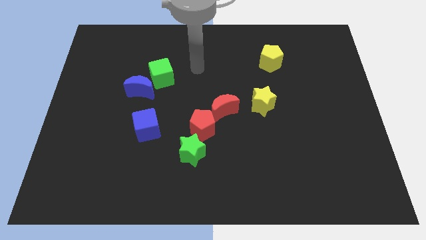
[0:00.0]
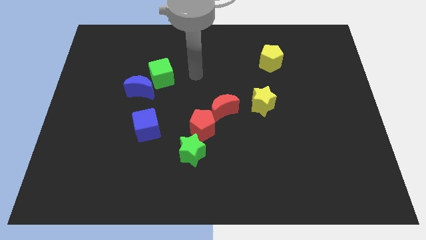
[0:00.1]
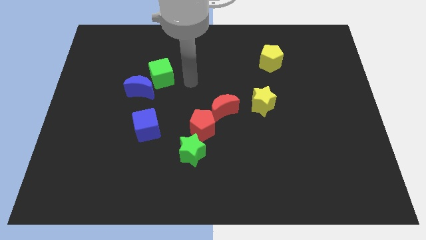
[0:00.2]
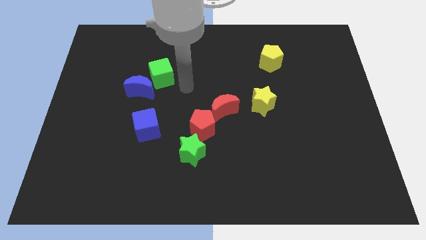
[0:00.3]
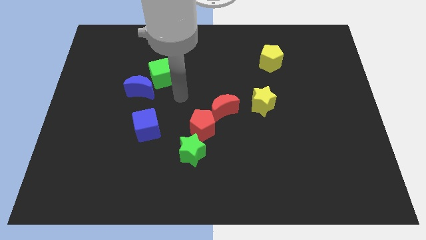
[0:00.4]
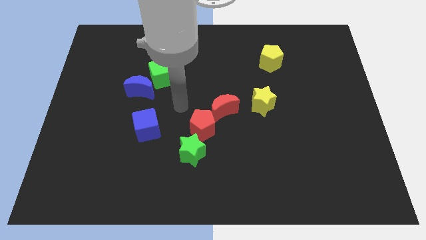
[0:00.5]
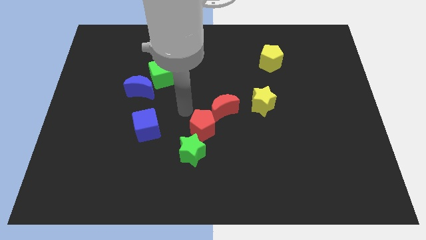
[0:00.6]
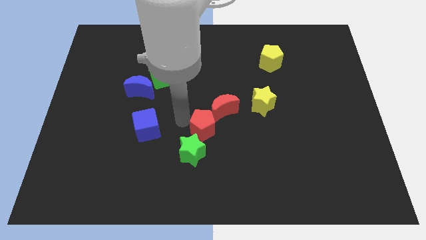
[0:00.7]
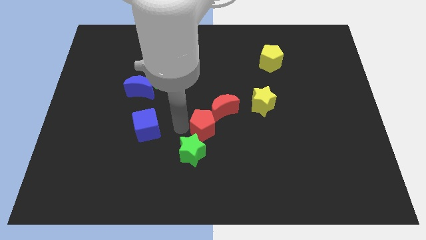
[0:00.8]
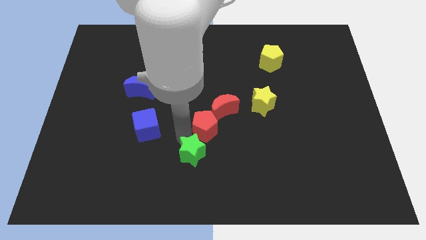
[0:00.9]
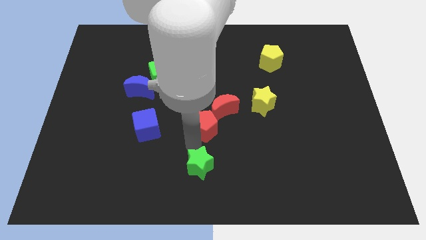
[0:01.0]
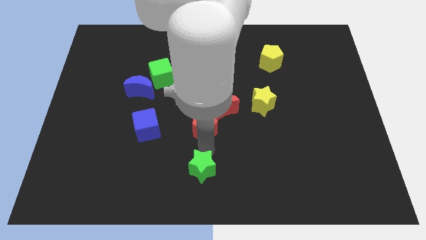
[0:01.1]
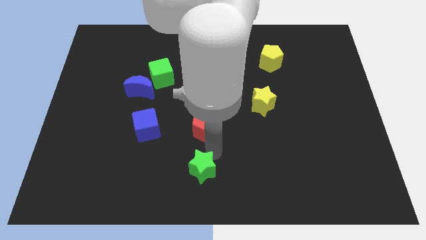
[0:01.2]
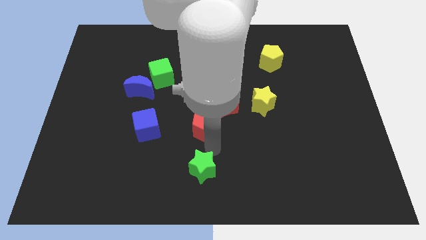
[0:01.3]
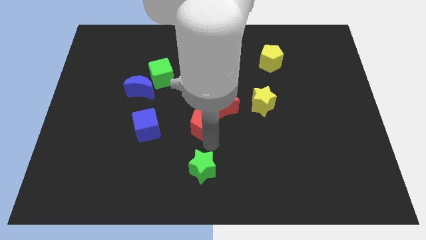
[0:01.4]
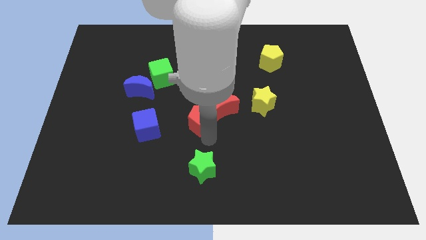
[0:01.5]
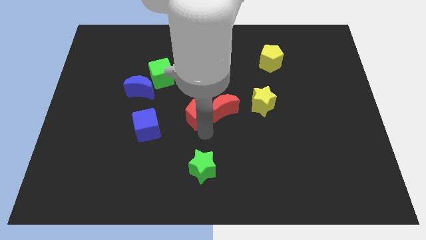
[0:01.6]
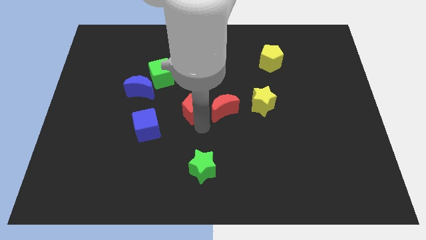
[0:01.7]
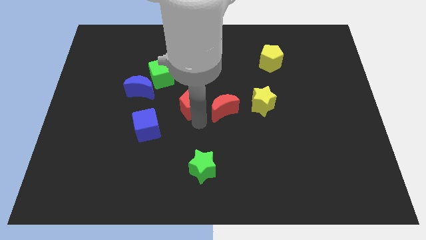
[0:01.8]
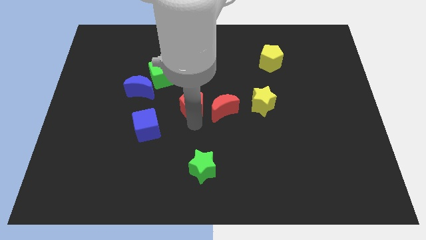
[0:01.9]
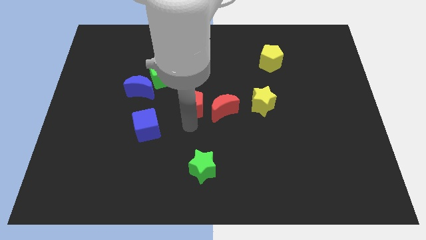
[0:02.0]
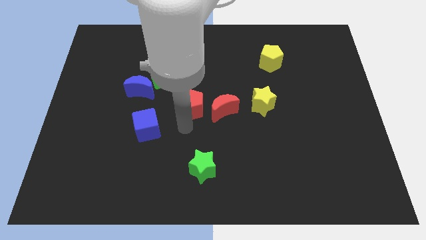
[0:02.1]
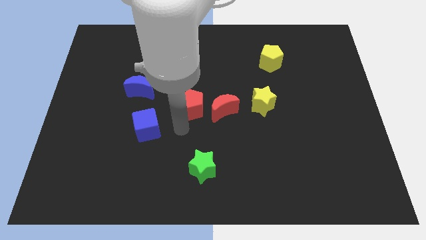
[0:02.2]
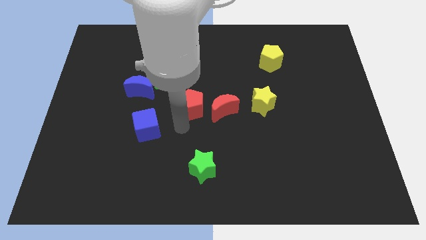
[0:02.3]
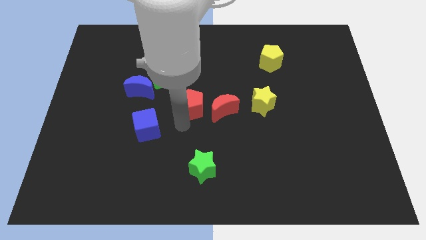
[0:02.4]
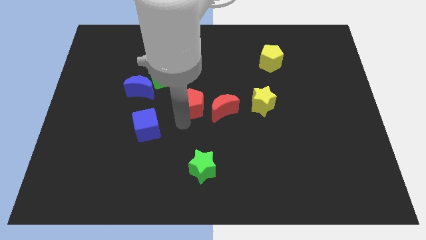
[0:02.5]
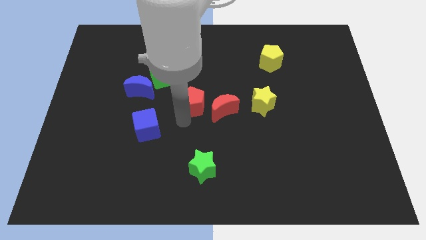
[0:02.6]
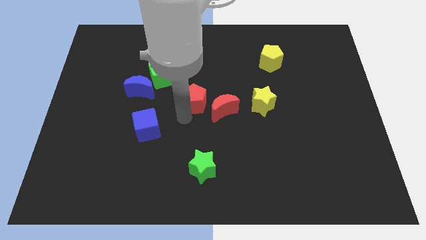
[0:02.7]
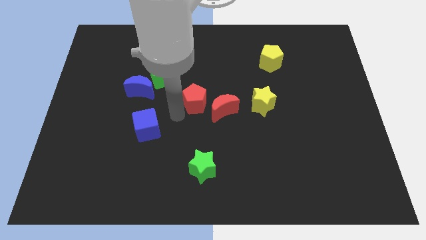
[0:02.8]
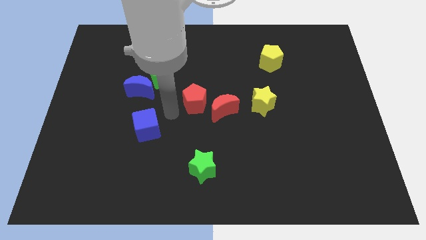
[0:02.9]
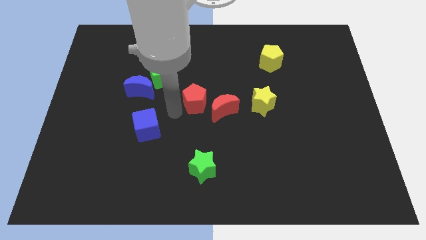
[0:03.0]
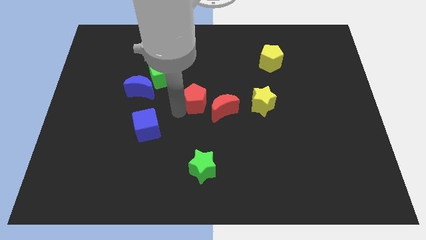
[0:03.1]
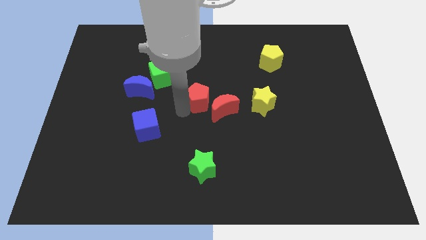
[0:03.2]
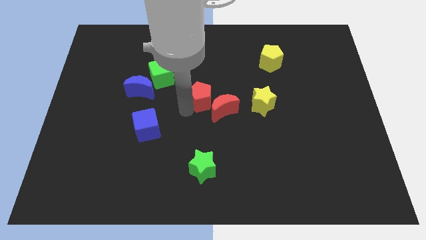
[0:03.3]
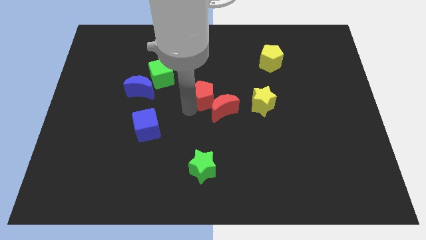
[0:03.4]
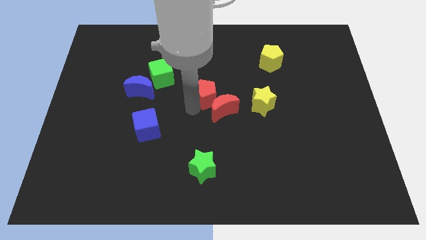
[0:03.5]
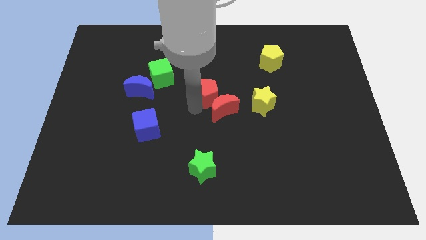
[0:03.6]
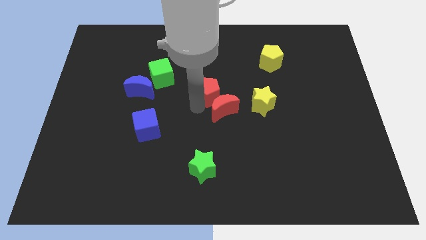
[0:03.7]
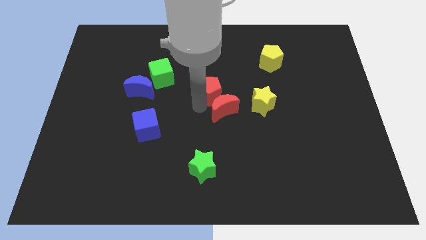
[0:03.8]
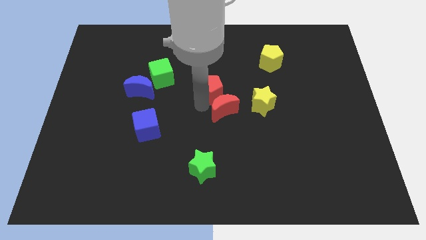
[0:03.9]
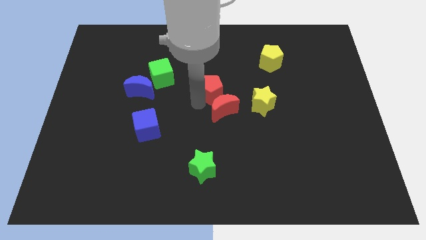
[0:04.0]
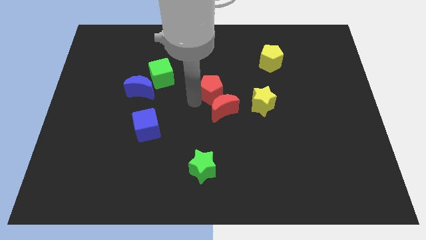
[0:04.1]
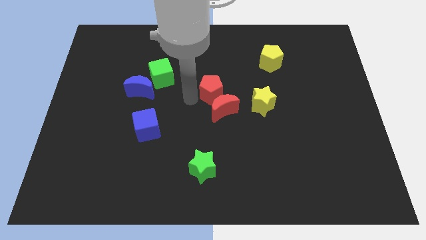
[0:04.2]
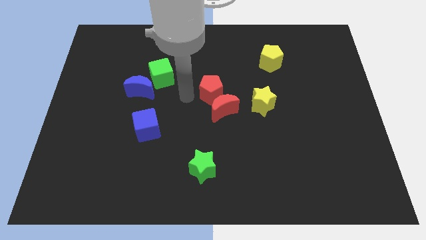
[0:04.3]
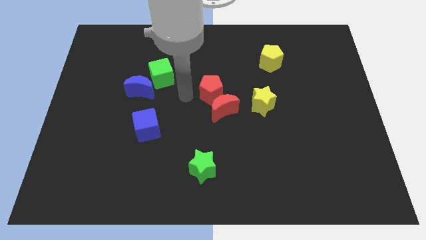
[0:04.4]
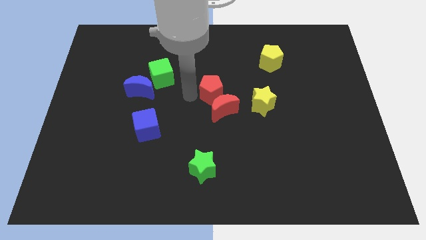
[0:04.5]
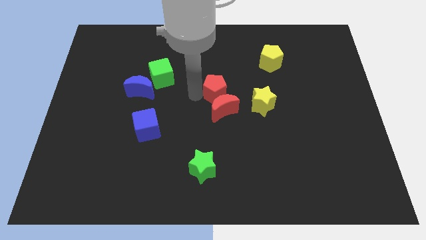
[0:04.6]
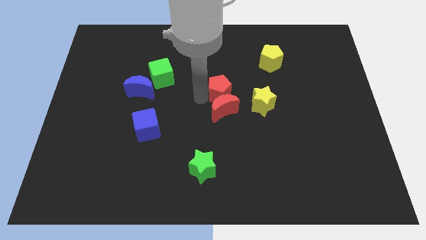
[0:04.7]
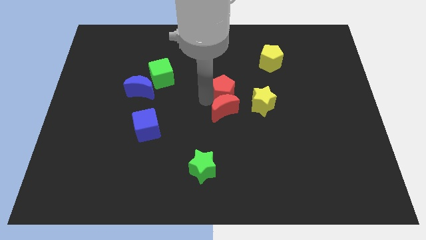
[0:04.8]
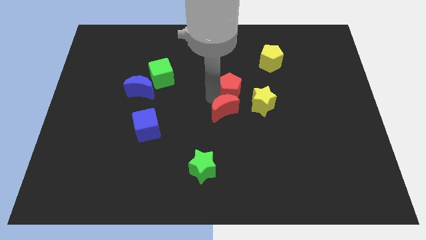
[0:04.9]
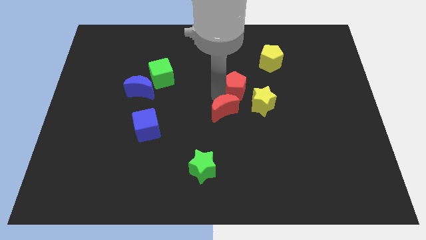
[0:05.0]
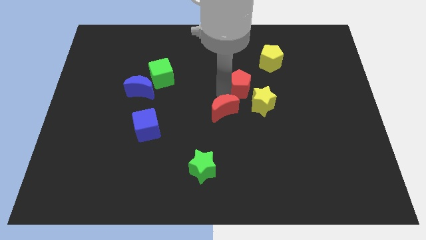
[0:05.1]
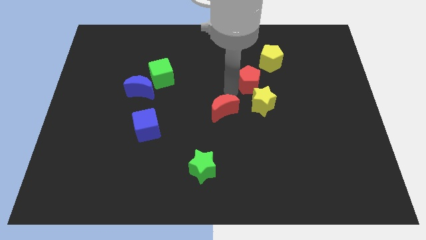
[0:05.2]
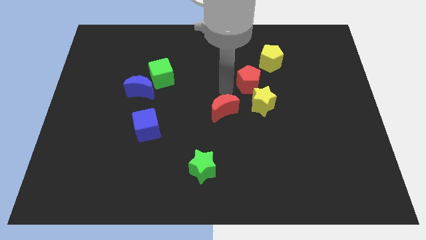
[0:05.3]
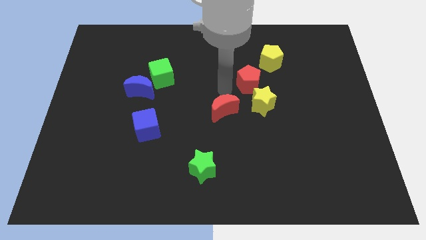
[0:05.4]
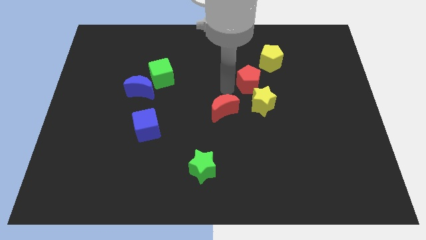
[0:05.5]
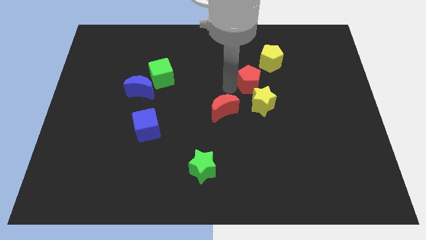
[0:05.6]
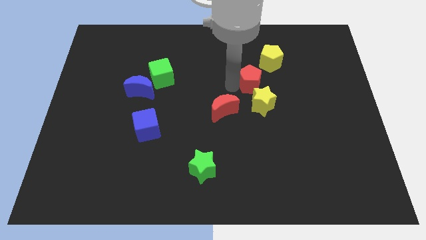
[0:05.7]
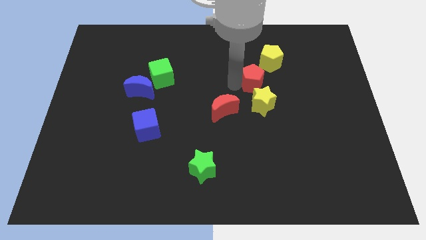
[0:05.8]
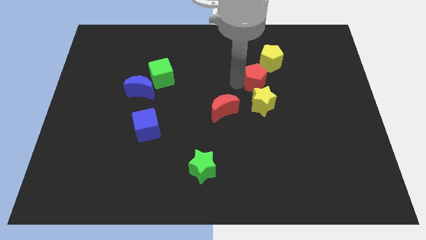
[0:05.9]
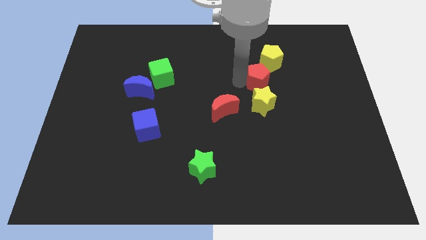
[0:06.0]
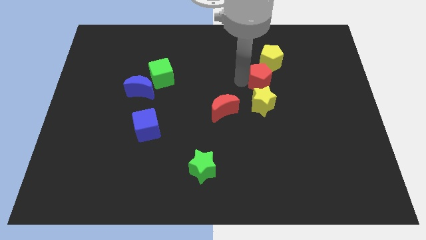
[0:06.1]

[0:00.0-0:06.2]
move the red pentagon upwards and then to the right

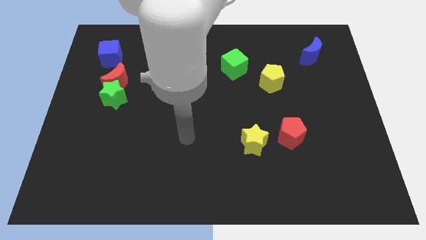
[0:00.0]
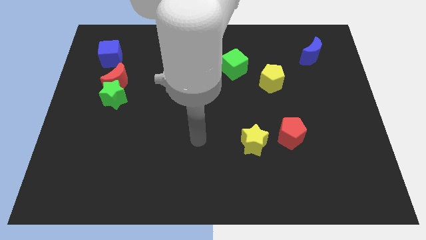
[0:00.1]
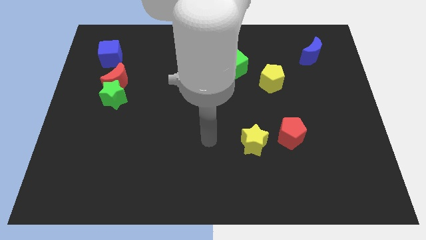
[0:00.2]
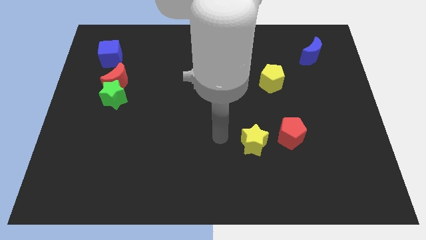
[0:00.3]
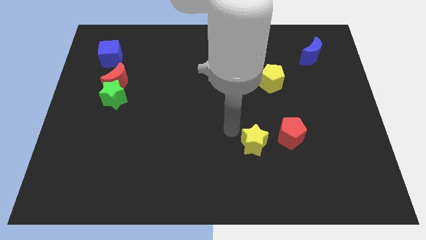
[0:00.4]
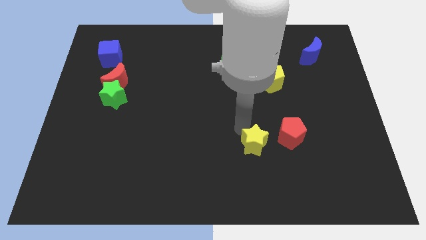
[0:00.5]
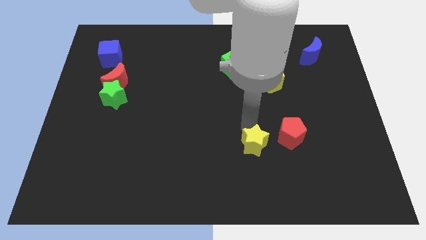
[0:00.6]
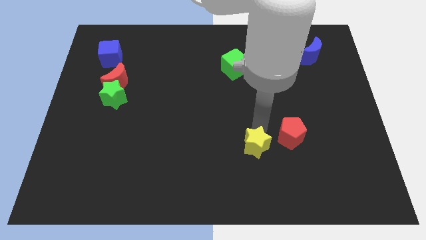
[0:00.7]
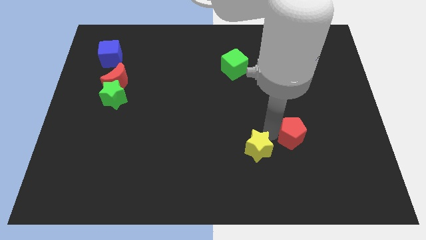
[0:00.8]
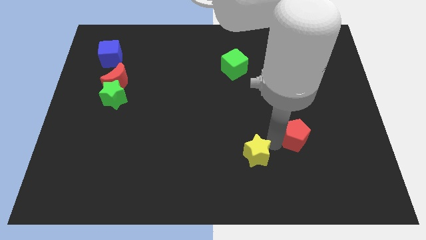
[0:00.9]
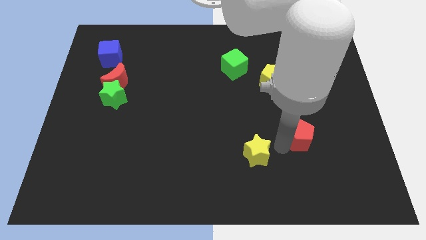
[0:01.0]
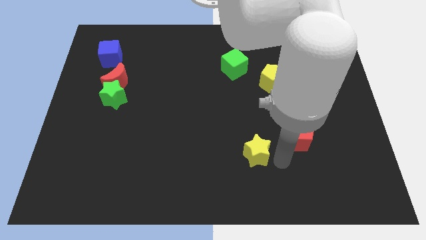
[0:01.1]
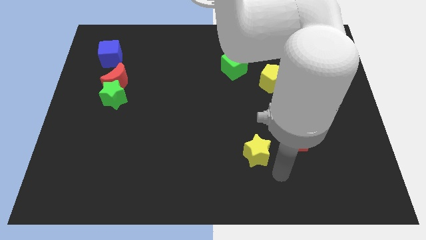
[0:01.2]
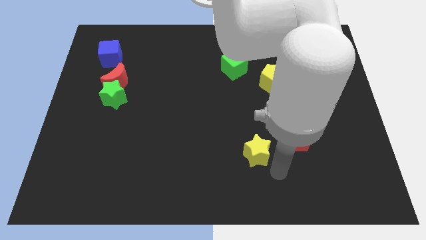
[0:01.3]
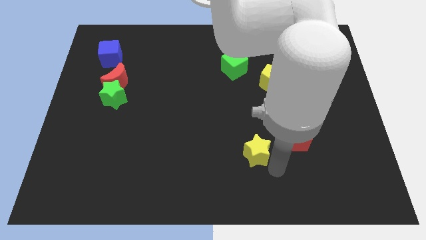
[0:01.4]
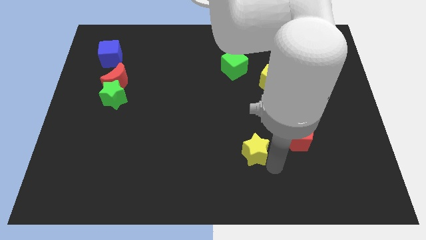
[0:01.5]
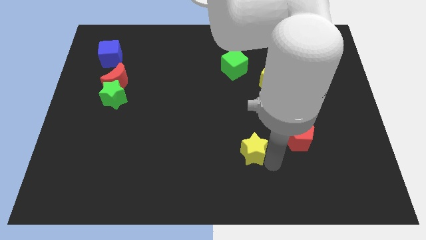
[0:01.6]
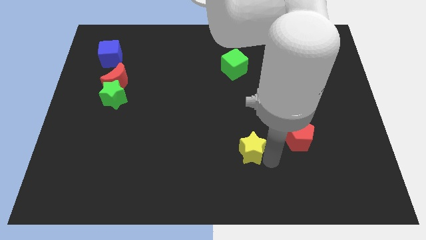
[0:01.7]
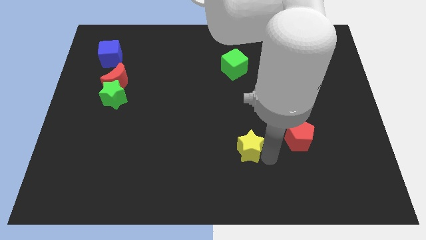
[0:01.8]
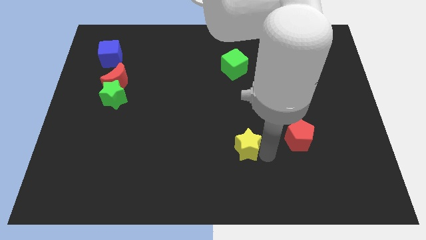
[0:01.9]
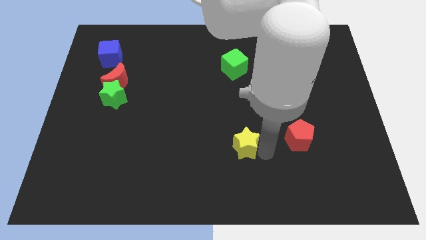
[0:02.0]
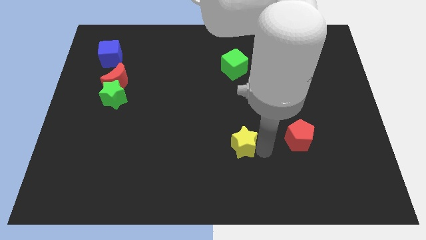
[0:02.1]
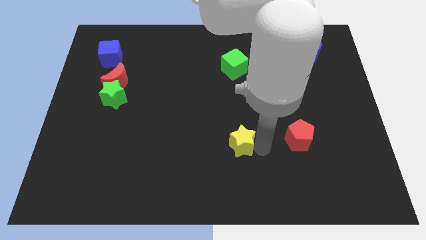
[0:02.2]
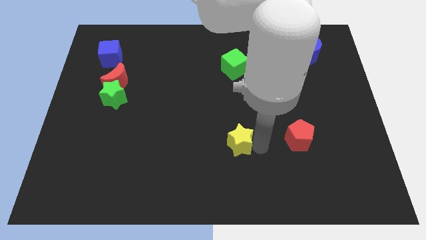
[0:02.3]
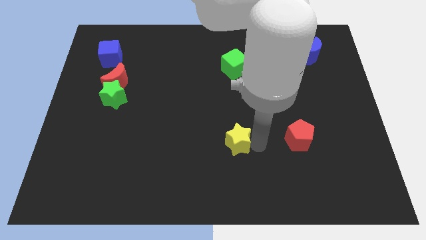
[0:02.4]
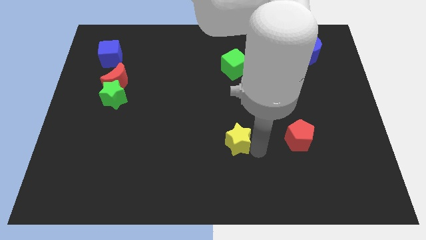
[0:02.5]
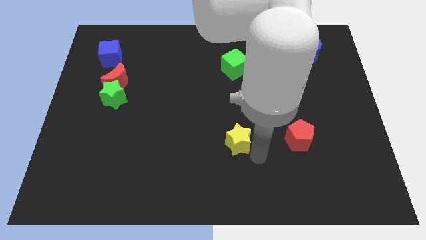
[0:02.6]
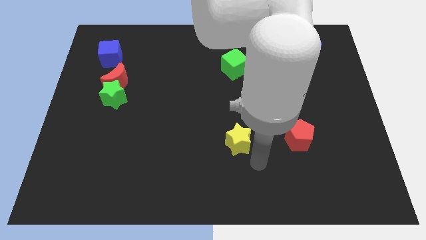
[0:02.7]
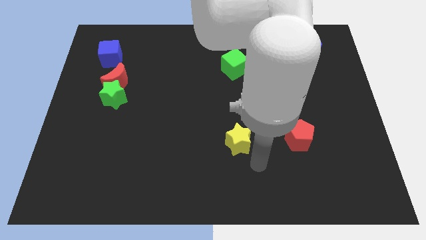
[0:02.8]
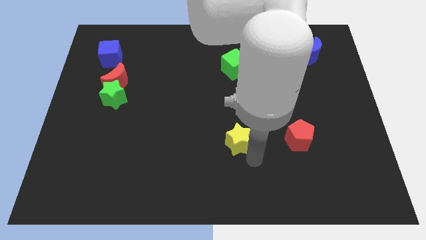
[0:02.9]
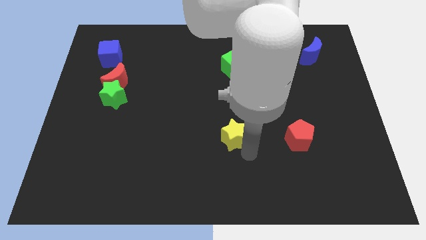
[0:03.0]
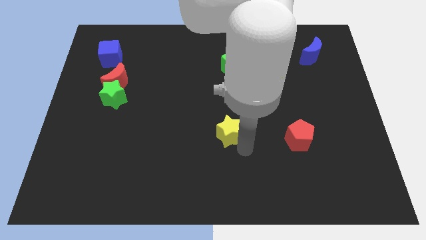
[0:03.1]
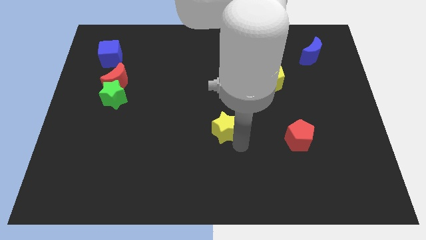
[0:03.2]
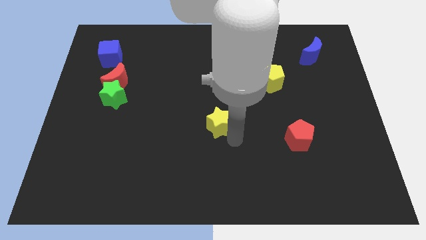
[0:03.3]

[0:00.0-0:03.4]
move the yellow star somewhat diagonally upwards and left
